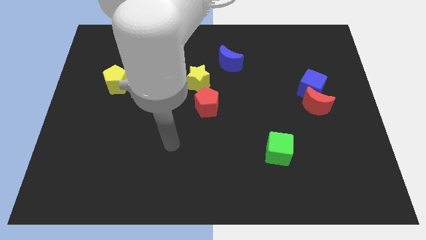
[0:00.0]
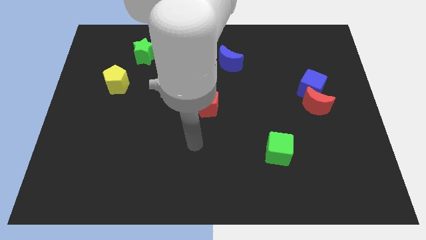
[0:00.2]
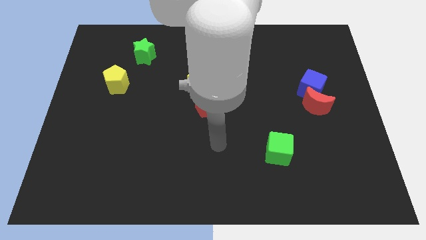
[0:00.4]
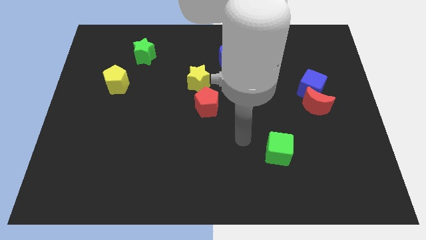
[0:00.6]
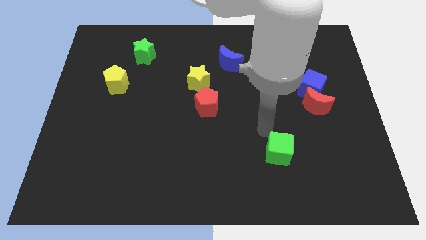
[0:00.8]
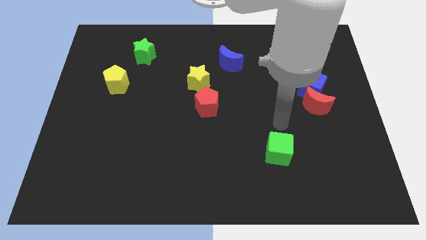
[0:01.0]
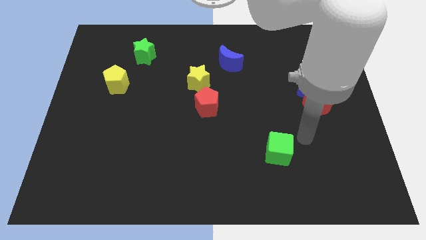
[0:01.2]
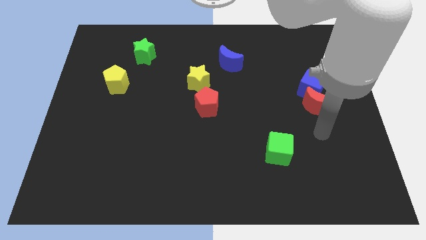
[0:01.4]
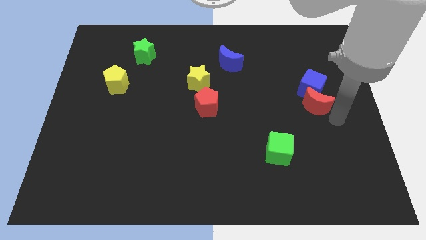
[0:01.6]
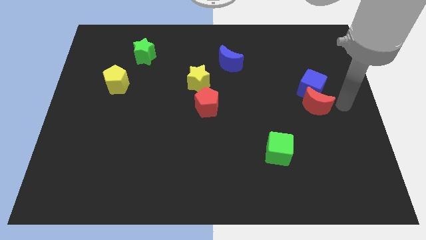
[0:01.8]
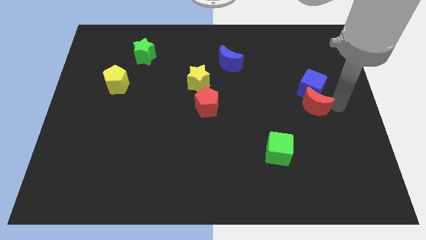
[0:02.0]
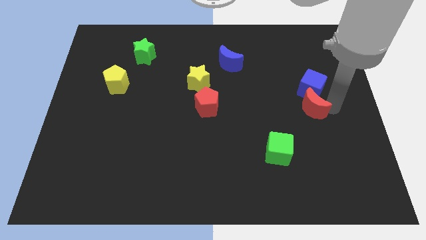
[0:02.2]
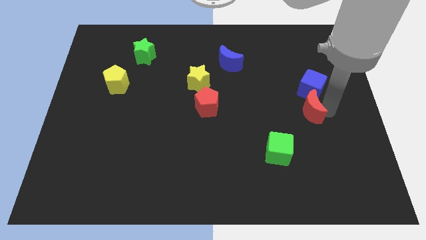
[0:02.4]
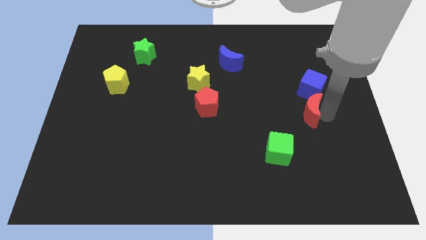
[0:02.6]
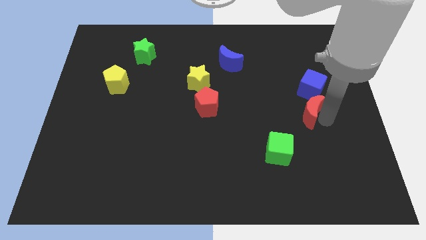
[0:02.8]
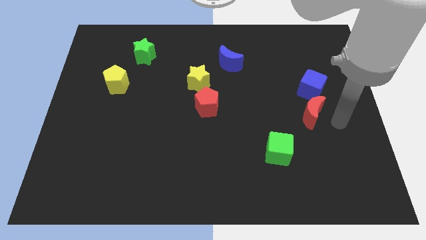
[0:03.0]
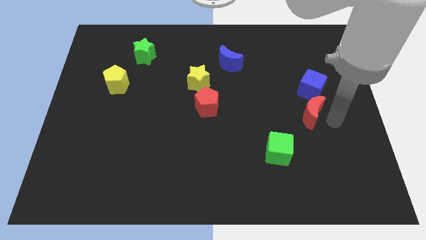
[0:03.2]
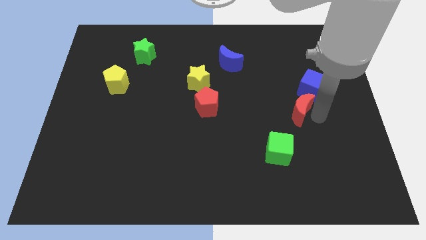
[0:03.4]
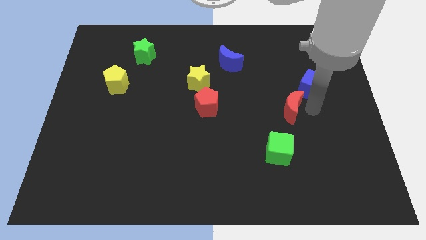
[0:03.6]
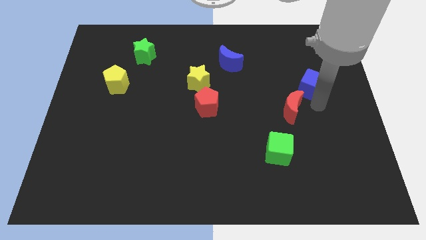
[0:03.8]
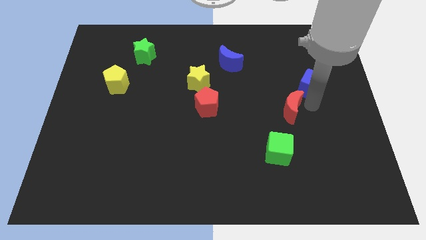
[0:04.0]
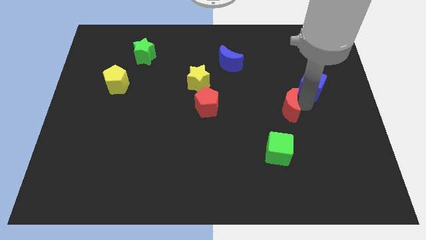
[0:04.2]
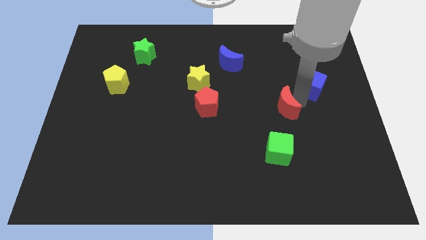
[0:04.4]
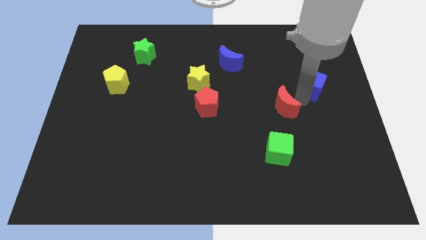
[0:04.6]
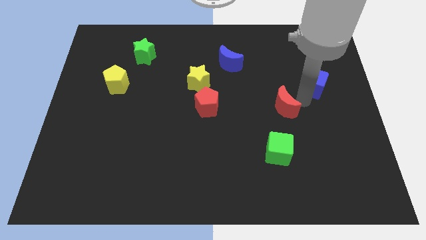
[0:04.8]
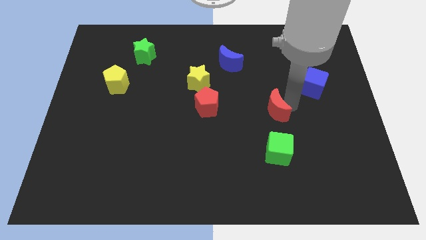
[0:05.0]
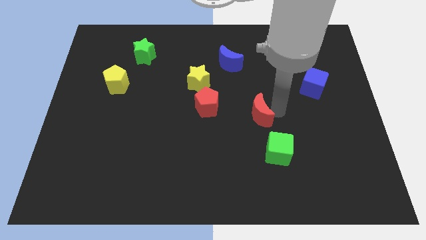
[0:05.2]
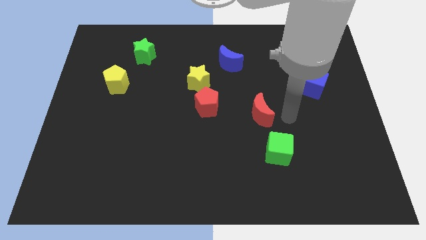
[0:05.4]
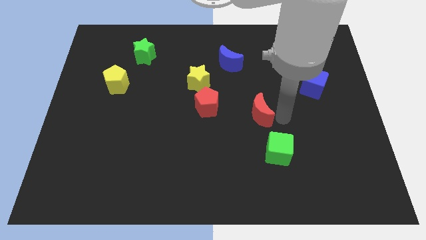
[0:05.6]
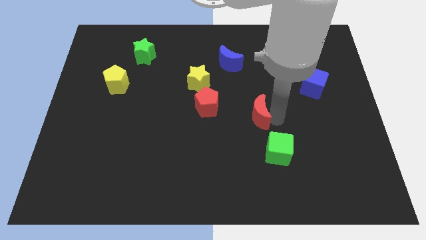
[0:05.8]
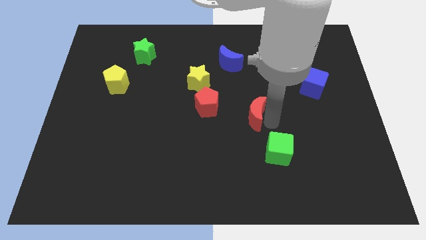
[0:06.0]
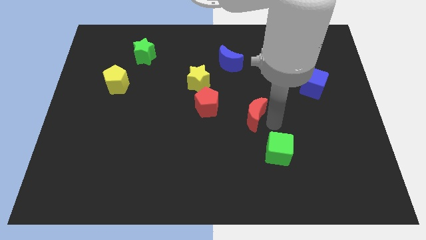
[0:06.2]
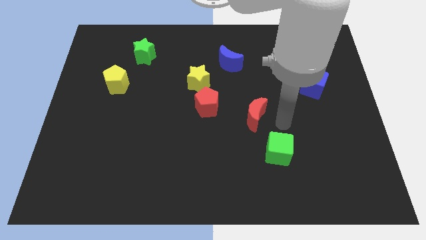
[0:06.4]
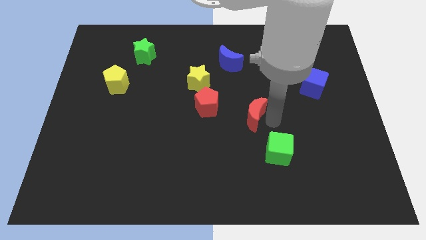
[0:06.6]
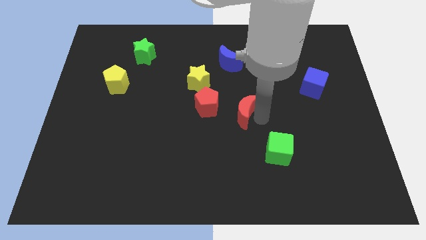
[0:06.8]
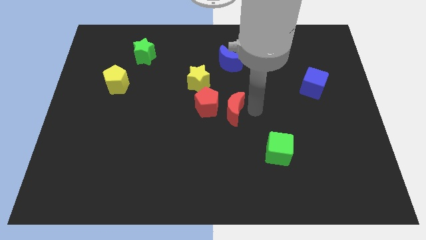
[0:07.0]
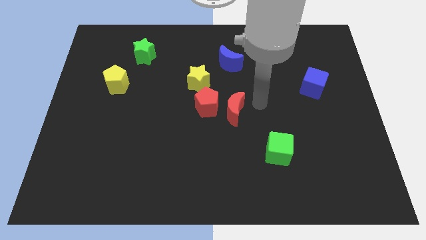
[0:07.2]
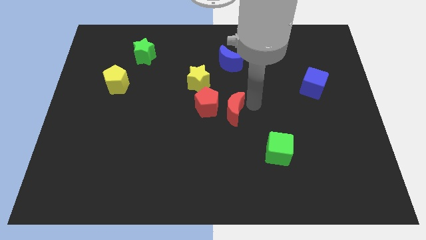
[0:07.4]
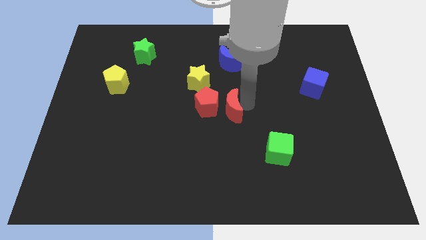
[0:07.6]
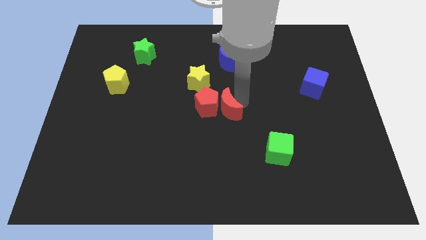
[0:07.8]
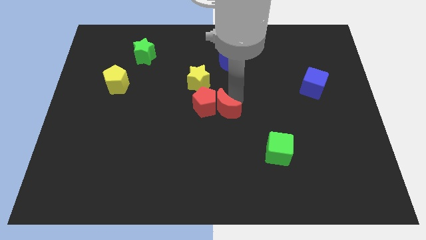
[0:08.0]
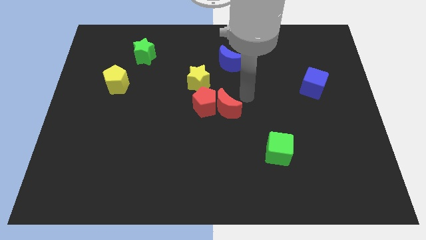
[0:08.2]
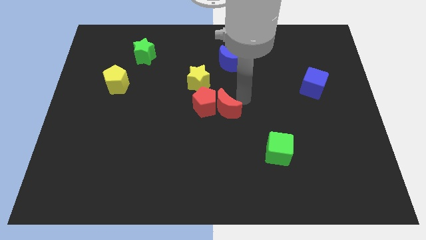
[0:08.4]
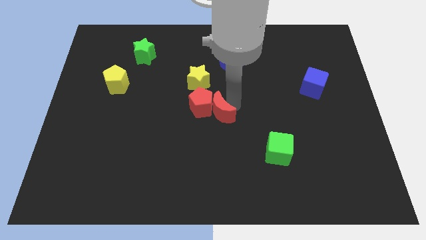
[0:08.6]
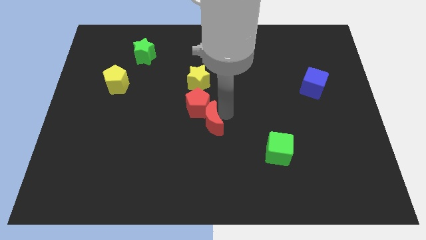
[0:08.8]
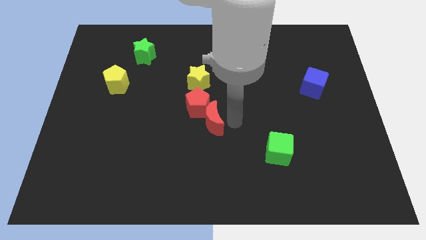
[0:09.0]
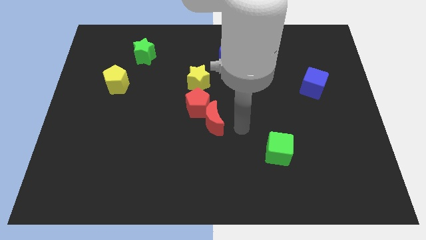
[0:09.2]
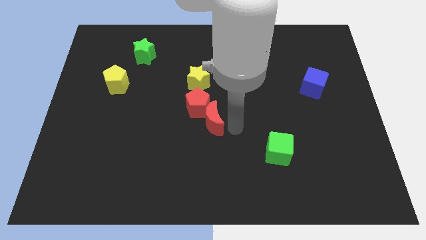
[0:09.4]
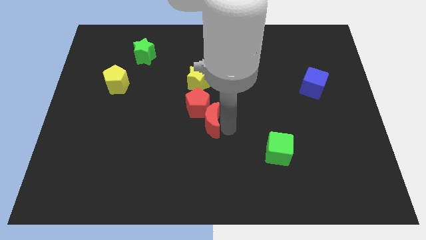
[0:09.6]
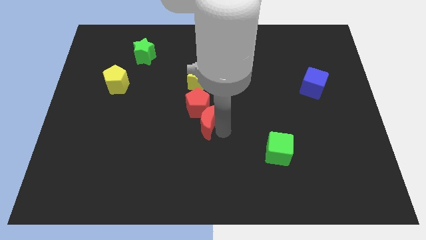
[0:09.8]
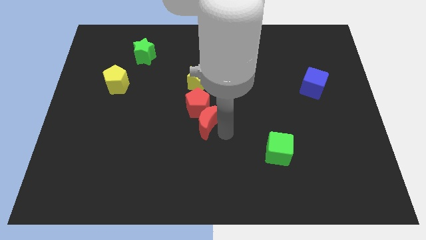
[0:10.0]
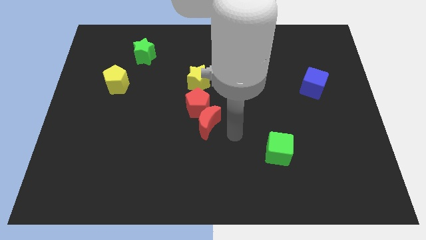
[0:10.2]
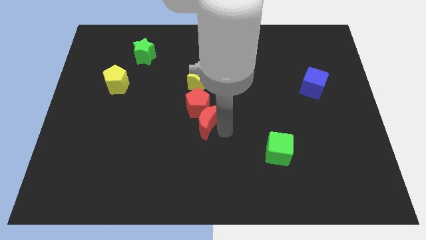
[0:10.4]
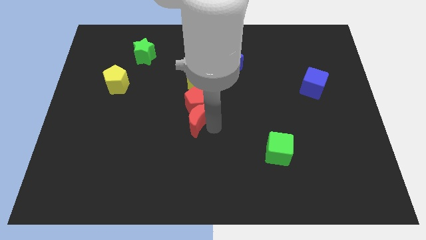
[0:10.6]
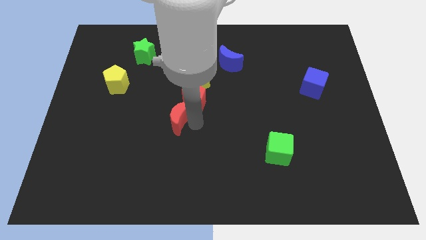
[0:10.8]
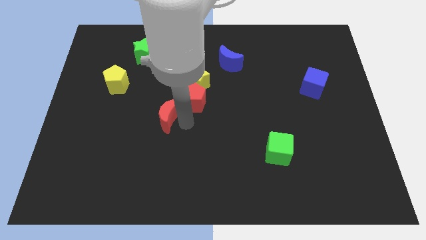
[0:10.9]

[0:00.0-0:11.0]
slide the red moon just left of the red pentagon
